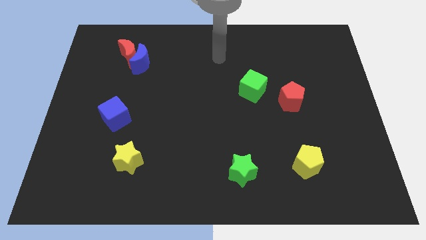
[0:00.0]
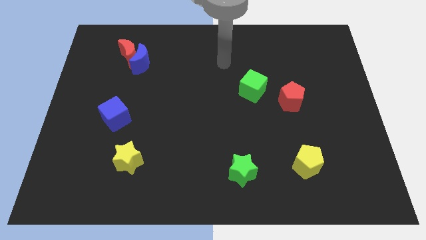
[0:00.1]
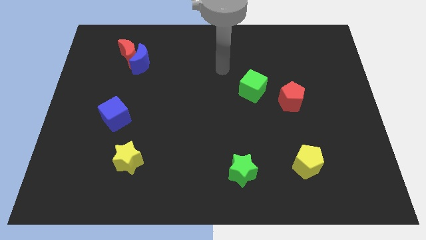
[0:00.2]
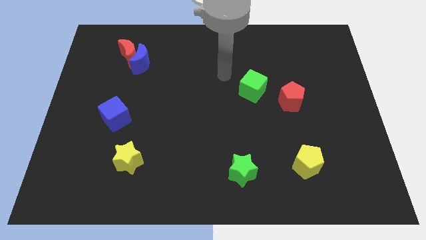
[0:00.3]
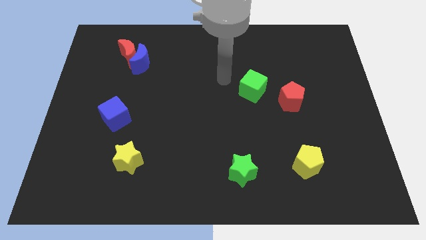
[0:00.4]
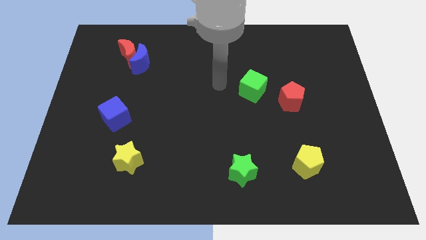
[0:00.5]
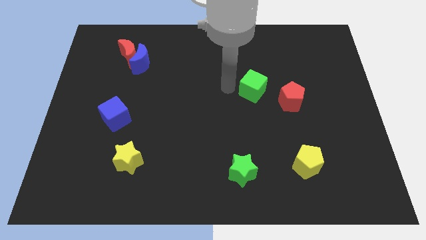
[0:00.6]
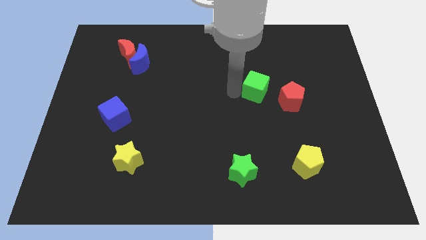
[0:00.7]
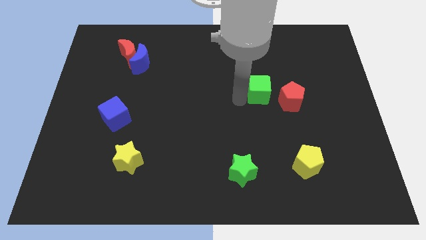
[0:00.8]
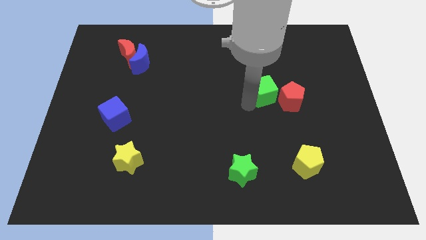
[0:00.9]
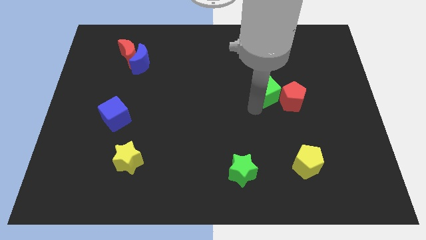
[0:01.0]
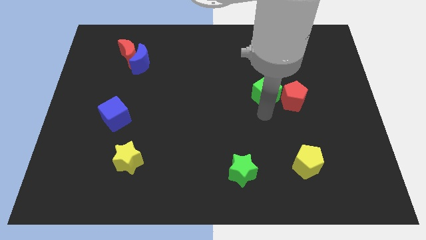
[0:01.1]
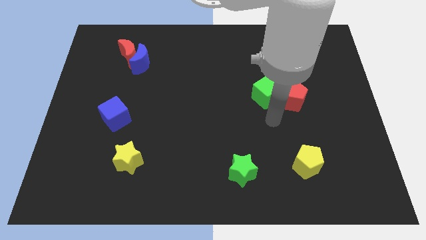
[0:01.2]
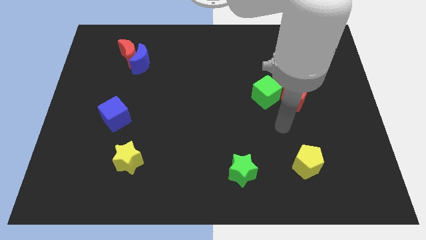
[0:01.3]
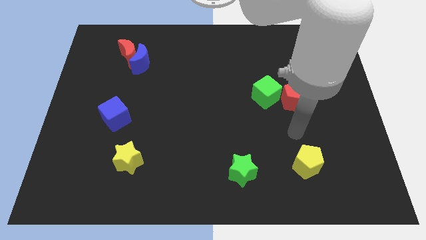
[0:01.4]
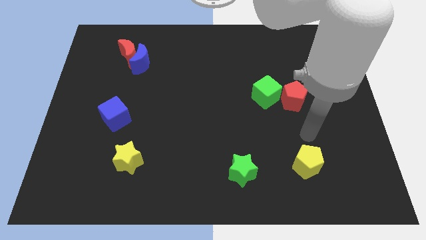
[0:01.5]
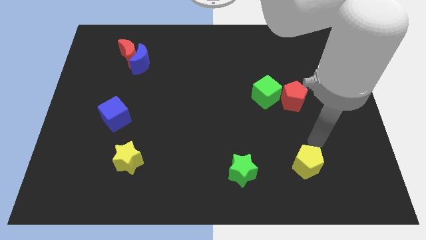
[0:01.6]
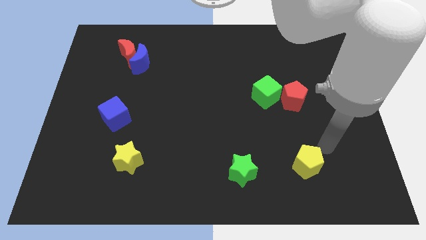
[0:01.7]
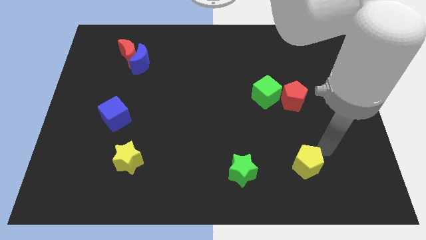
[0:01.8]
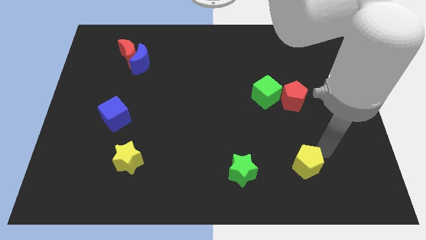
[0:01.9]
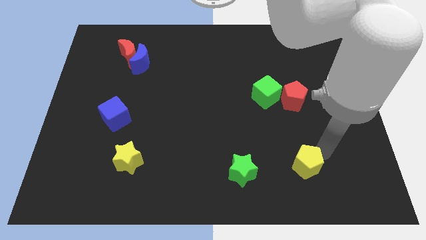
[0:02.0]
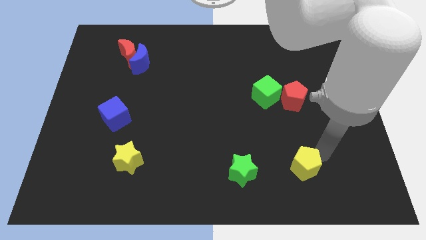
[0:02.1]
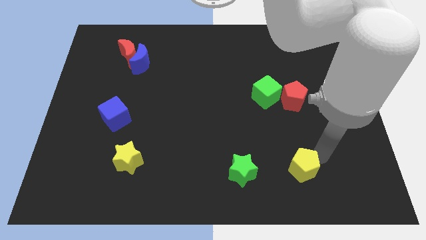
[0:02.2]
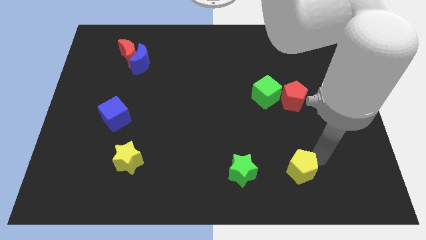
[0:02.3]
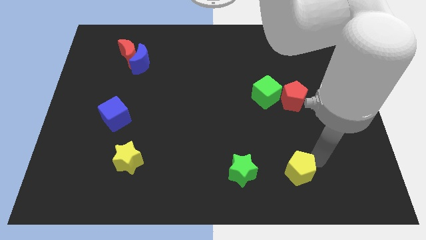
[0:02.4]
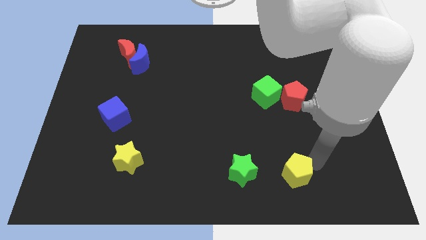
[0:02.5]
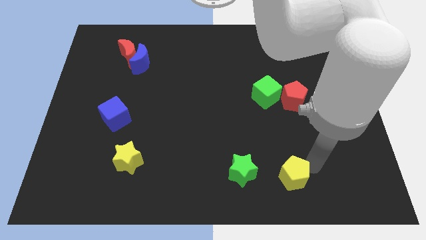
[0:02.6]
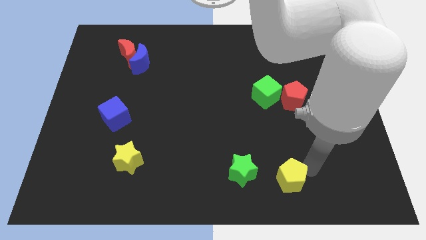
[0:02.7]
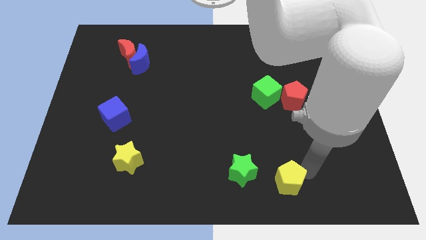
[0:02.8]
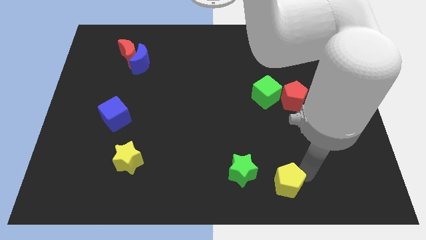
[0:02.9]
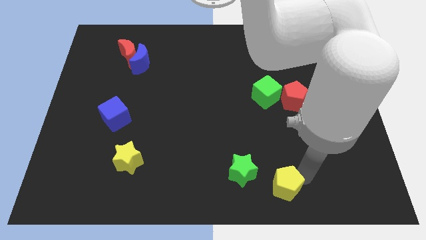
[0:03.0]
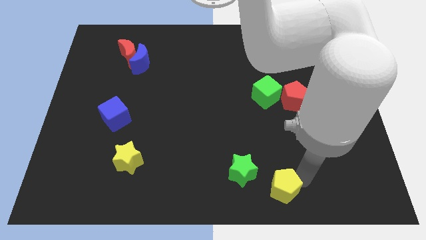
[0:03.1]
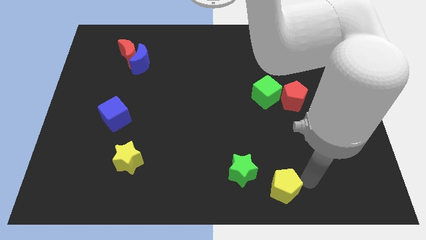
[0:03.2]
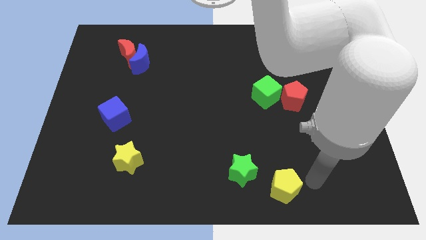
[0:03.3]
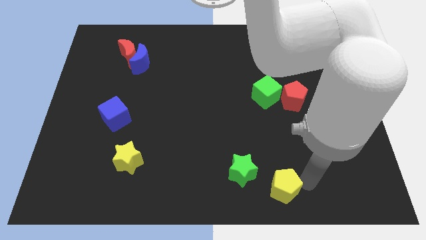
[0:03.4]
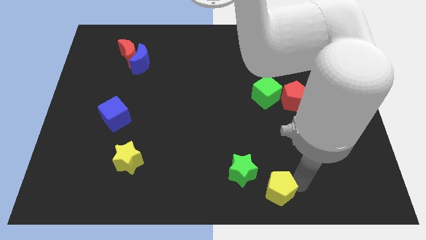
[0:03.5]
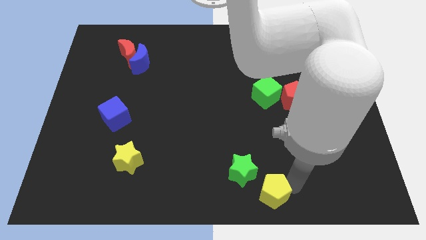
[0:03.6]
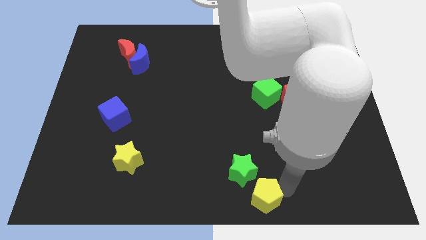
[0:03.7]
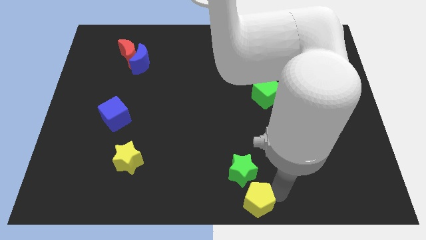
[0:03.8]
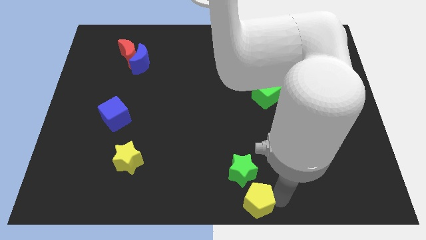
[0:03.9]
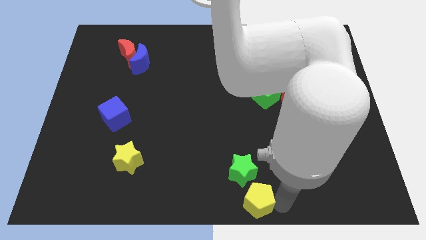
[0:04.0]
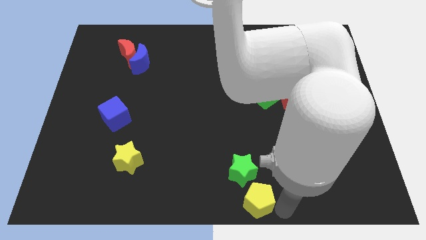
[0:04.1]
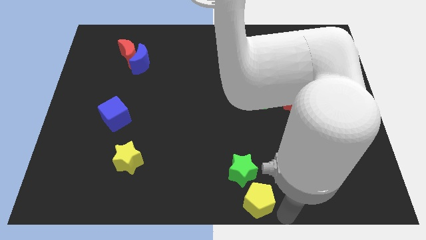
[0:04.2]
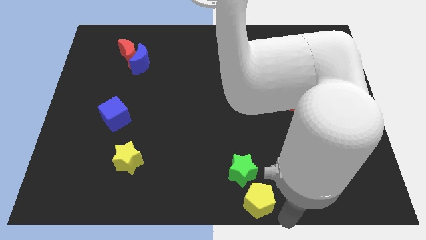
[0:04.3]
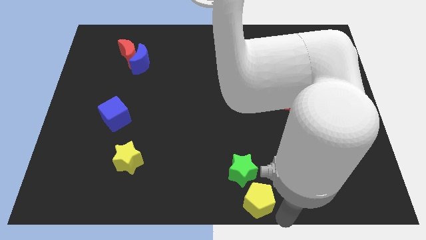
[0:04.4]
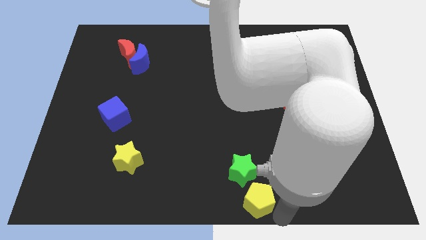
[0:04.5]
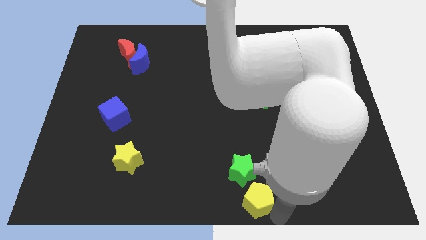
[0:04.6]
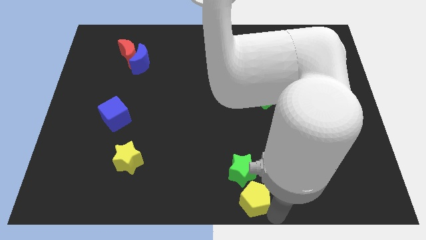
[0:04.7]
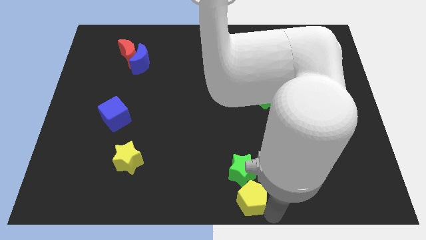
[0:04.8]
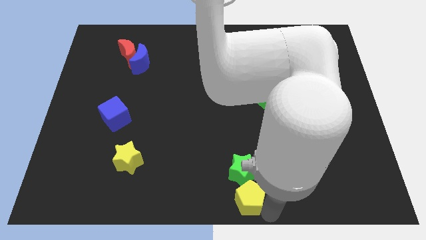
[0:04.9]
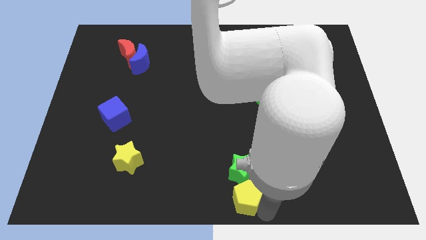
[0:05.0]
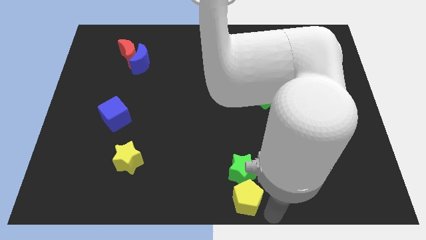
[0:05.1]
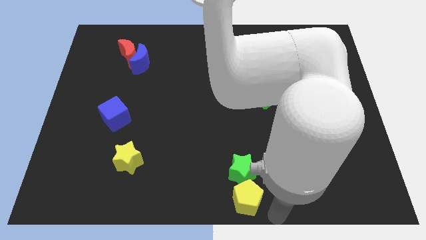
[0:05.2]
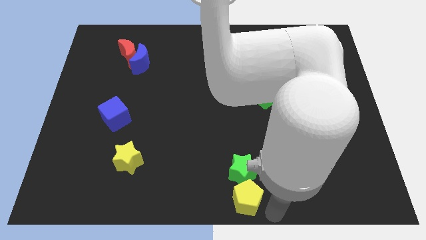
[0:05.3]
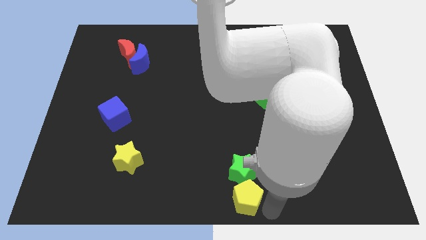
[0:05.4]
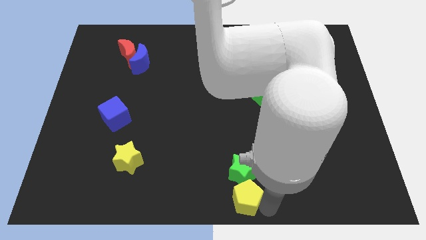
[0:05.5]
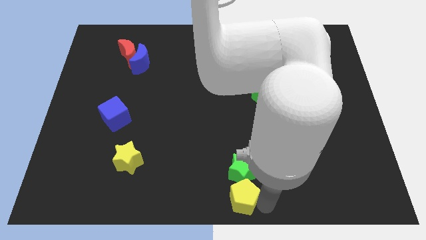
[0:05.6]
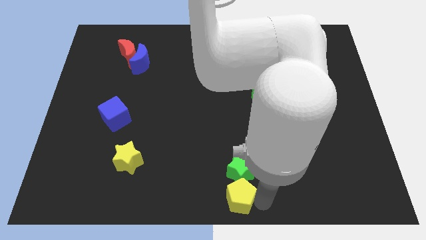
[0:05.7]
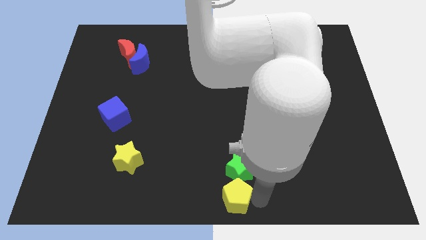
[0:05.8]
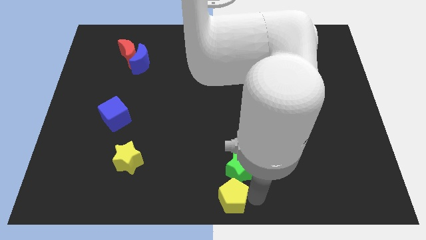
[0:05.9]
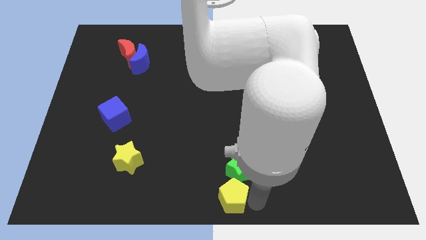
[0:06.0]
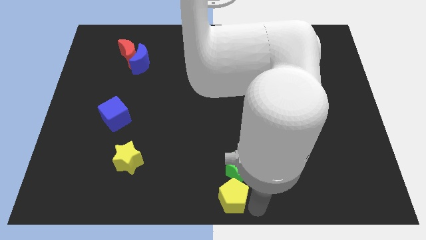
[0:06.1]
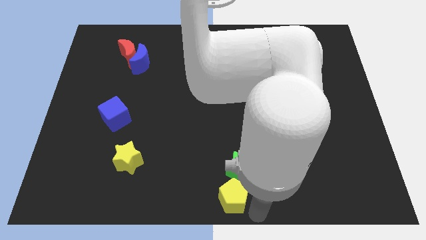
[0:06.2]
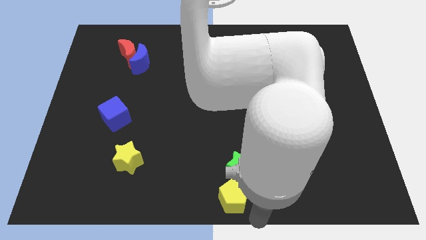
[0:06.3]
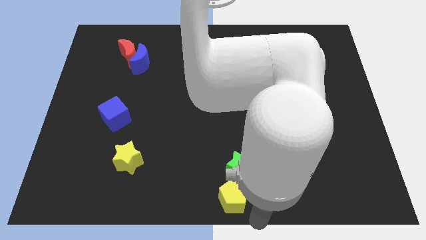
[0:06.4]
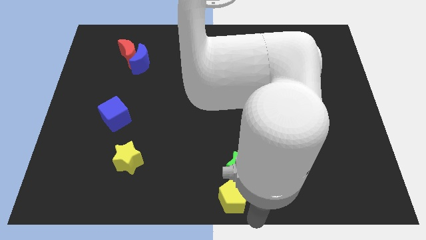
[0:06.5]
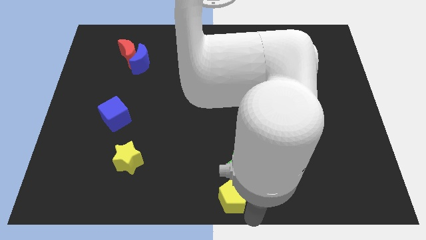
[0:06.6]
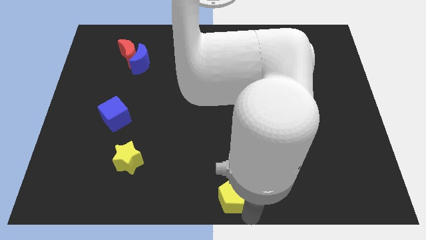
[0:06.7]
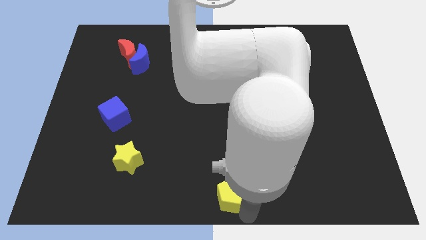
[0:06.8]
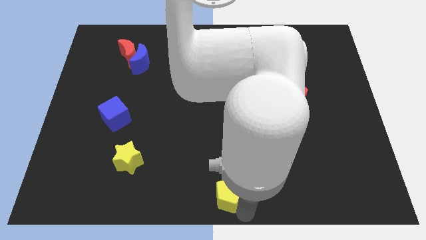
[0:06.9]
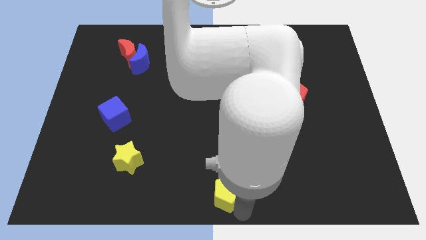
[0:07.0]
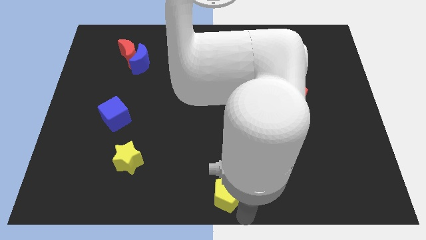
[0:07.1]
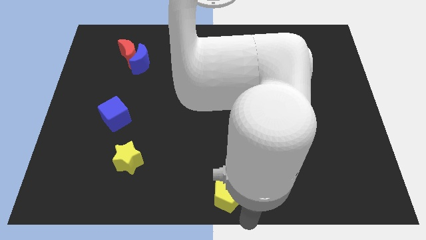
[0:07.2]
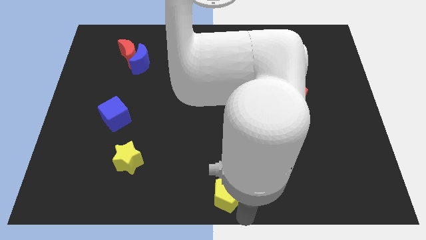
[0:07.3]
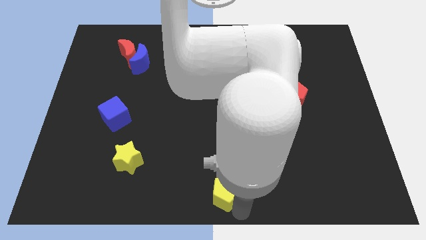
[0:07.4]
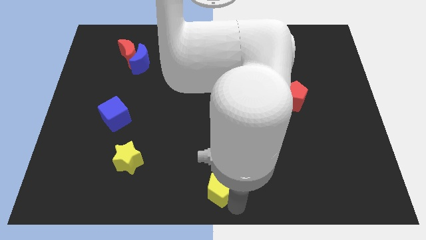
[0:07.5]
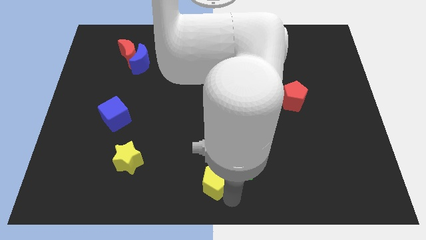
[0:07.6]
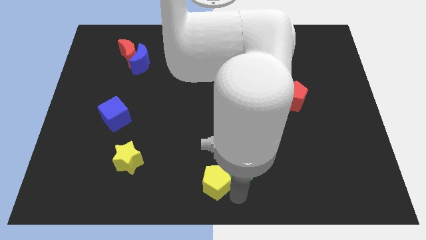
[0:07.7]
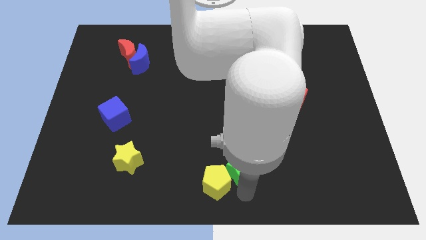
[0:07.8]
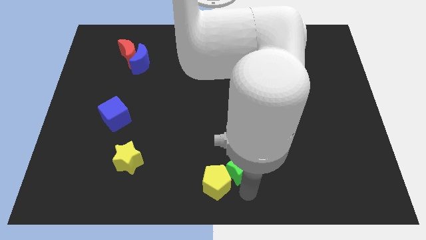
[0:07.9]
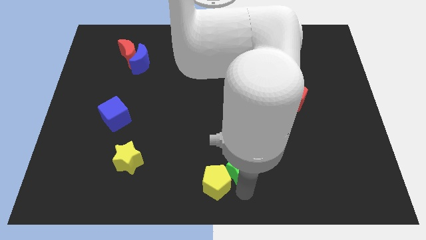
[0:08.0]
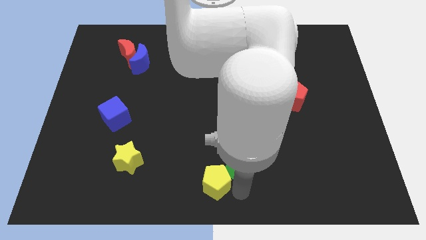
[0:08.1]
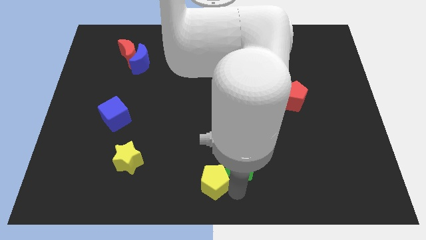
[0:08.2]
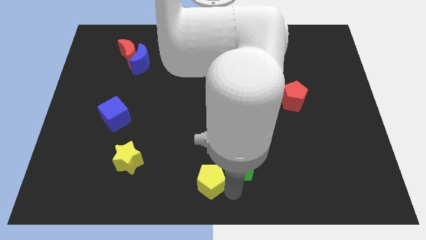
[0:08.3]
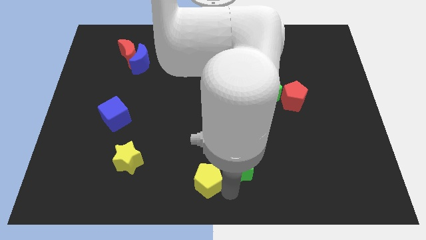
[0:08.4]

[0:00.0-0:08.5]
move the yellow pentagon left
